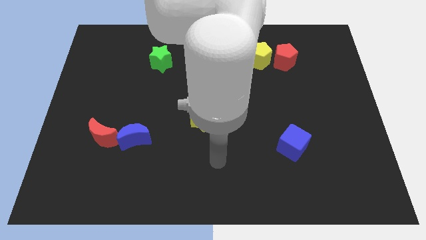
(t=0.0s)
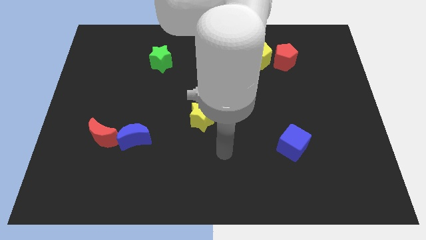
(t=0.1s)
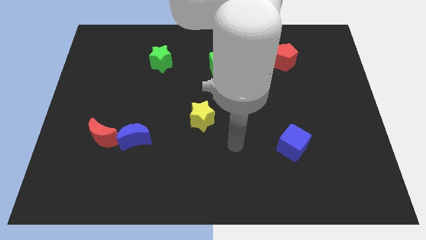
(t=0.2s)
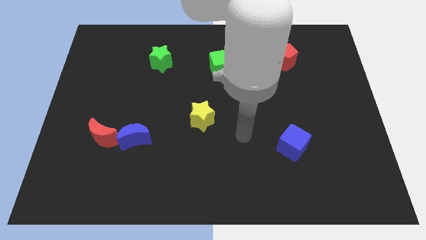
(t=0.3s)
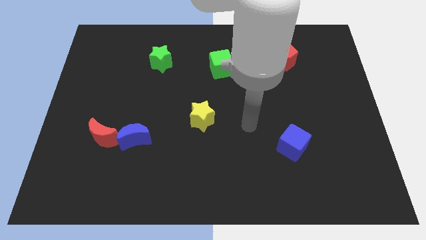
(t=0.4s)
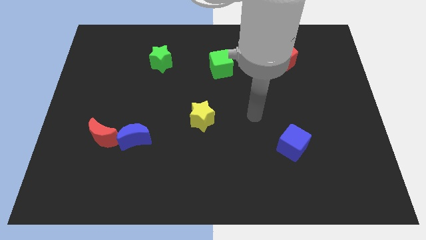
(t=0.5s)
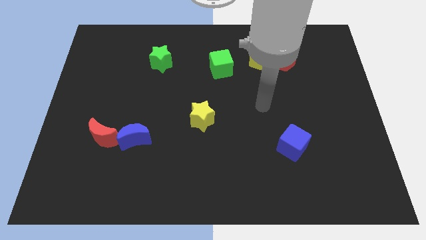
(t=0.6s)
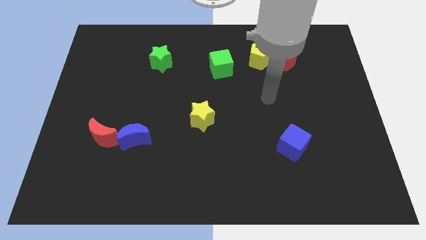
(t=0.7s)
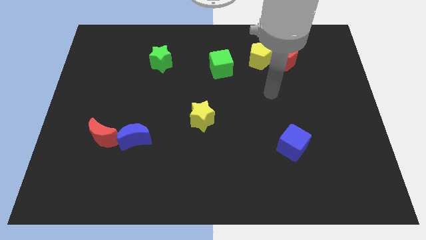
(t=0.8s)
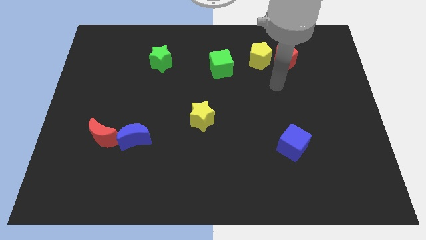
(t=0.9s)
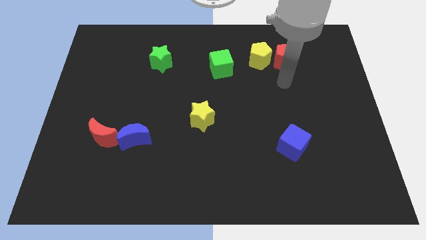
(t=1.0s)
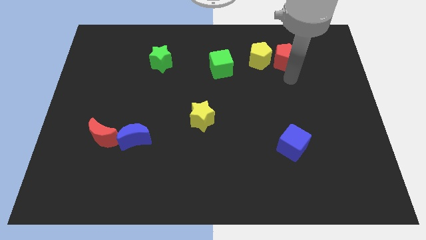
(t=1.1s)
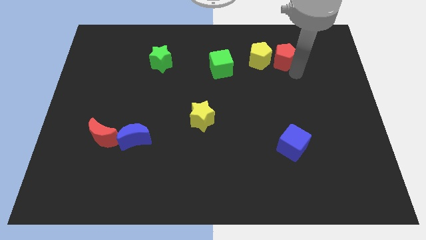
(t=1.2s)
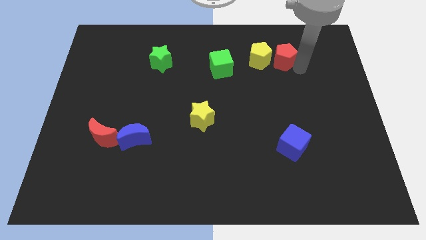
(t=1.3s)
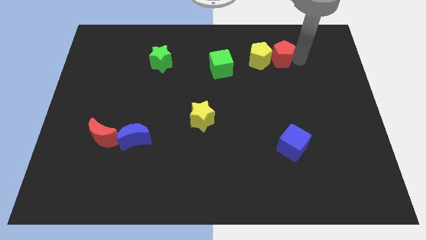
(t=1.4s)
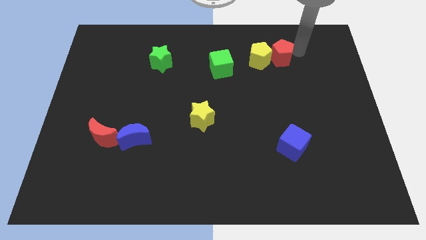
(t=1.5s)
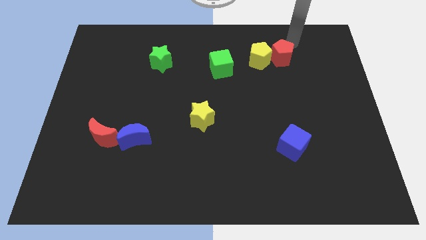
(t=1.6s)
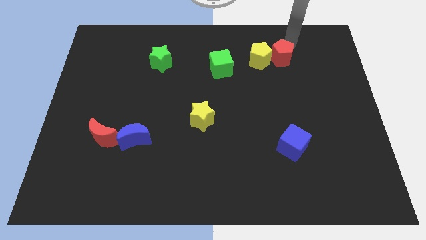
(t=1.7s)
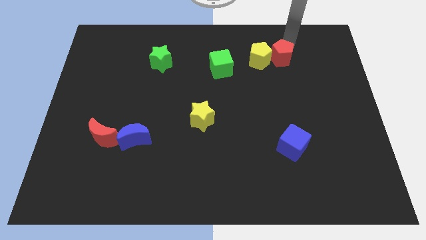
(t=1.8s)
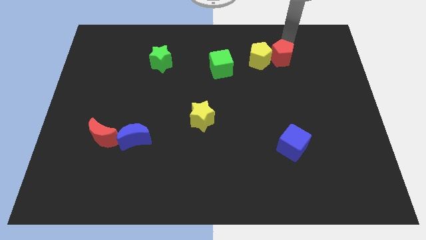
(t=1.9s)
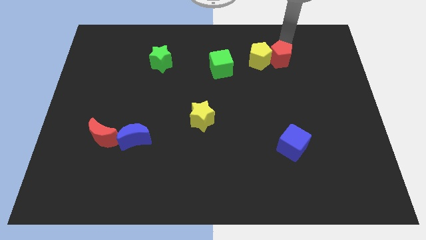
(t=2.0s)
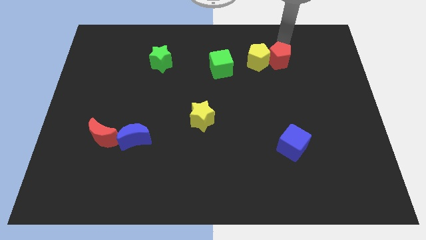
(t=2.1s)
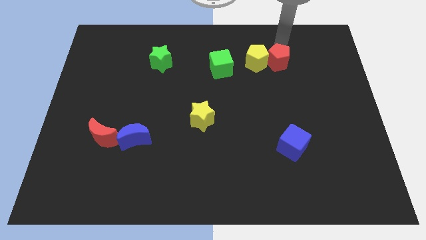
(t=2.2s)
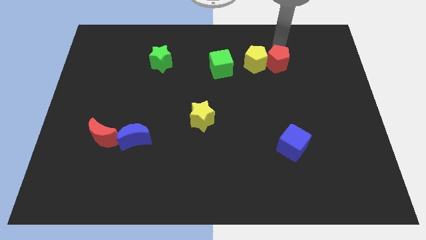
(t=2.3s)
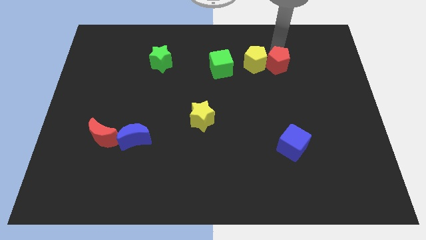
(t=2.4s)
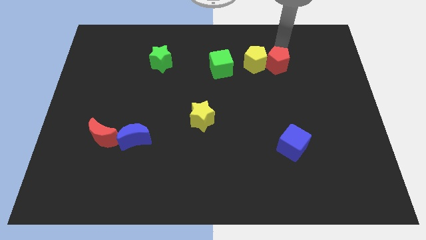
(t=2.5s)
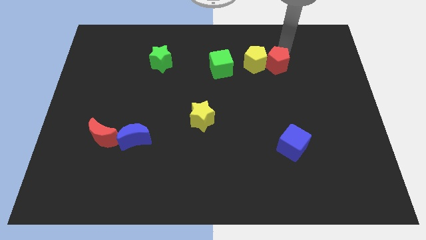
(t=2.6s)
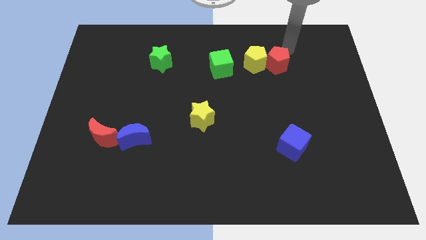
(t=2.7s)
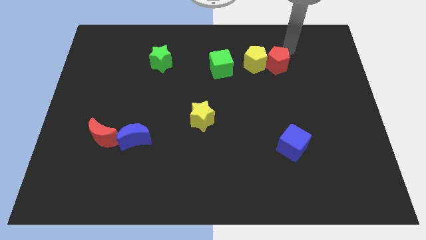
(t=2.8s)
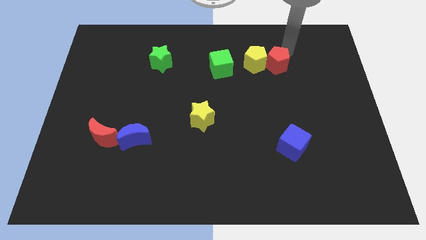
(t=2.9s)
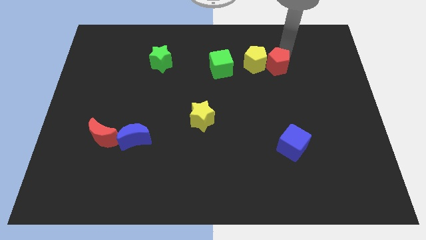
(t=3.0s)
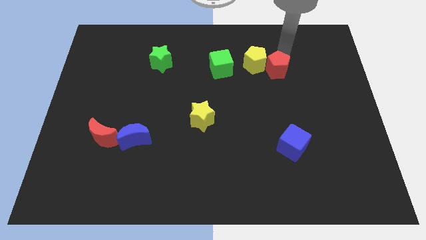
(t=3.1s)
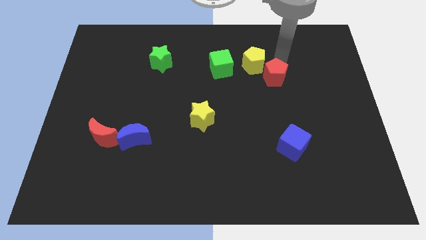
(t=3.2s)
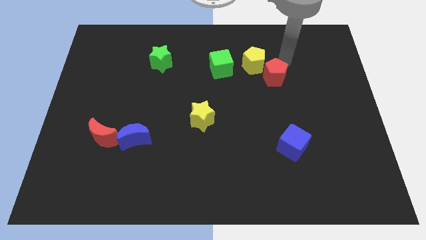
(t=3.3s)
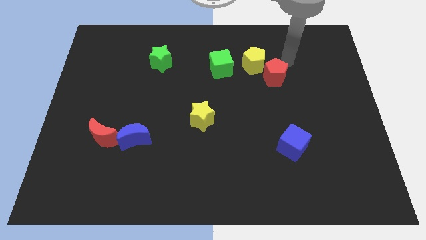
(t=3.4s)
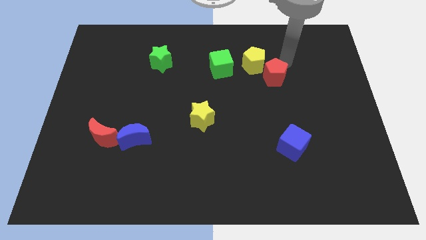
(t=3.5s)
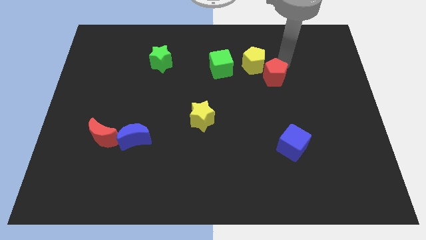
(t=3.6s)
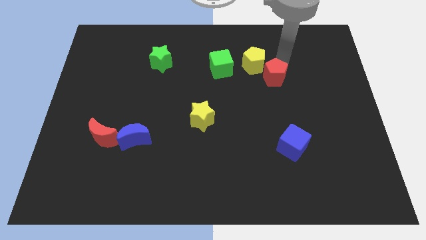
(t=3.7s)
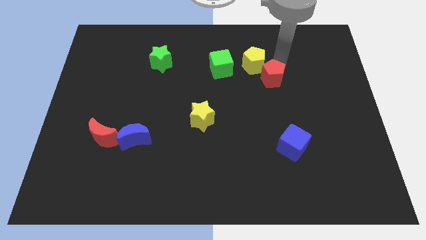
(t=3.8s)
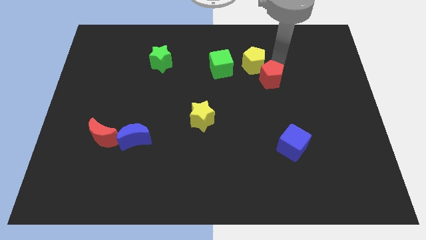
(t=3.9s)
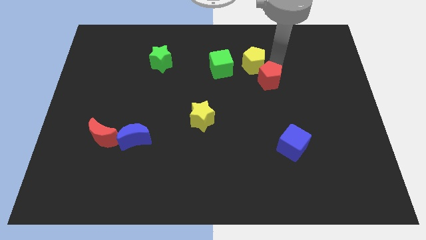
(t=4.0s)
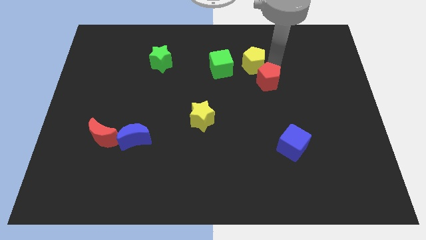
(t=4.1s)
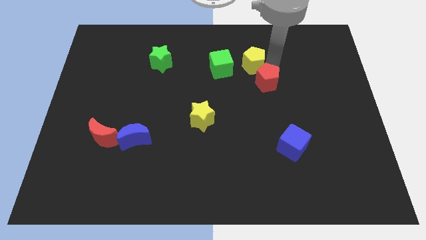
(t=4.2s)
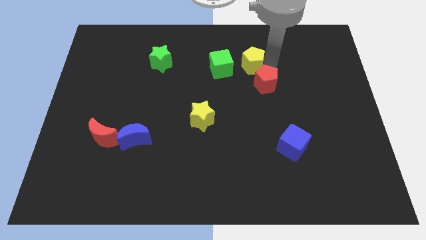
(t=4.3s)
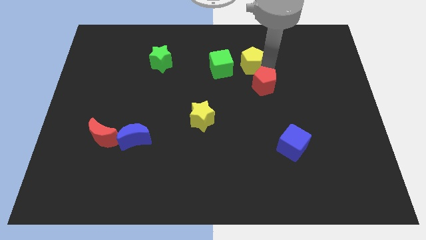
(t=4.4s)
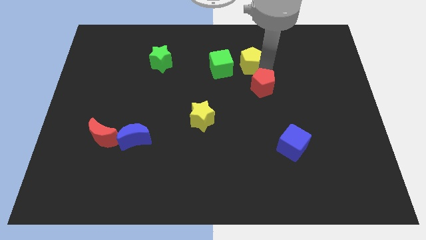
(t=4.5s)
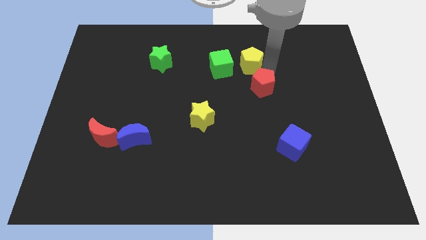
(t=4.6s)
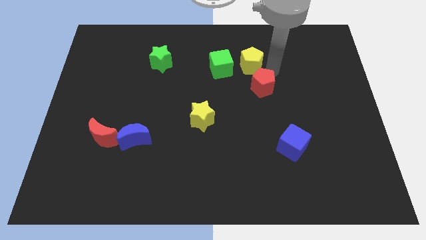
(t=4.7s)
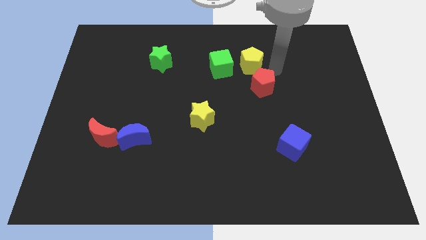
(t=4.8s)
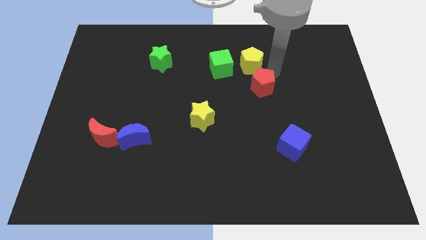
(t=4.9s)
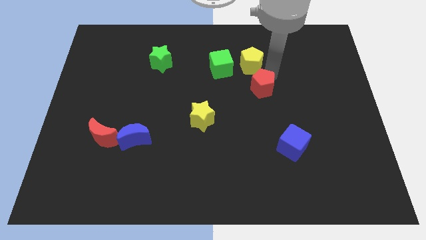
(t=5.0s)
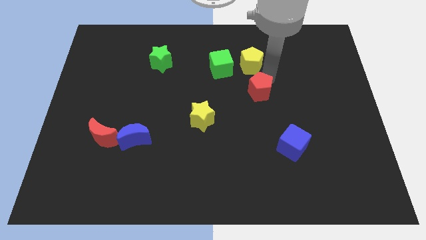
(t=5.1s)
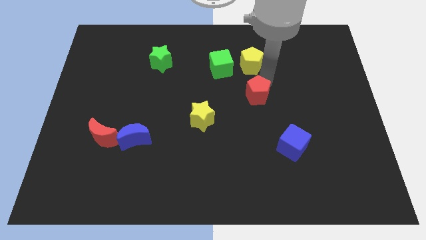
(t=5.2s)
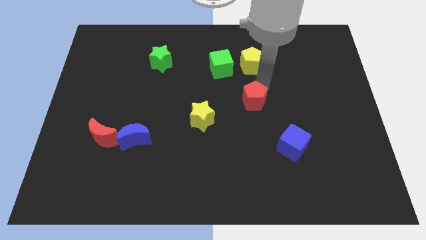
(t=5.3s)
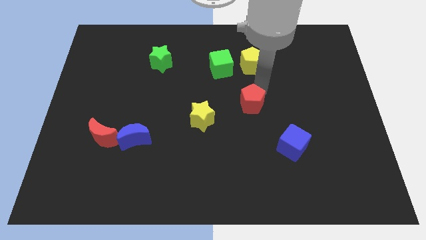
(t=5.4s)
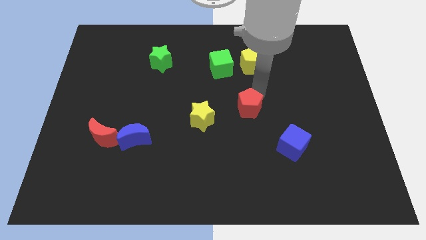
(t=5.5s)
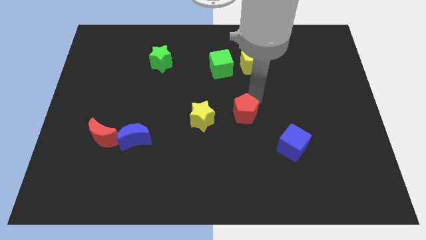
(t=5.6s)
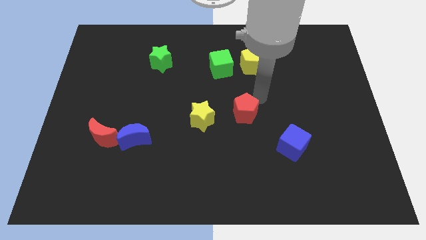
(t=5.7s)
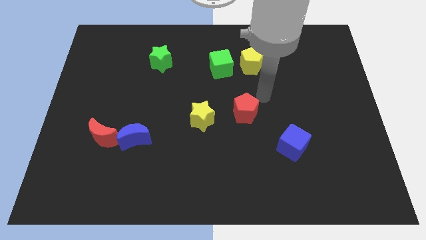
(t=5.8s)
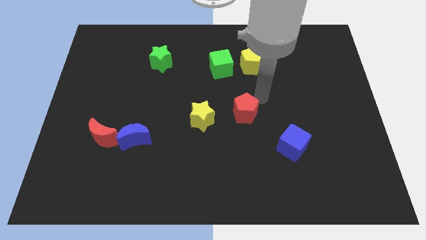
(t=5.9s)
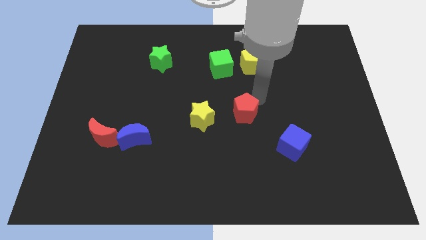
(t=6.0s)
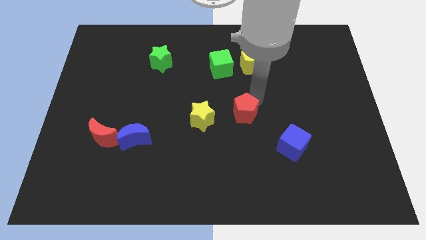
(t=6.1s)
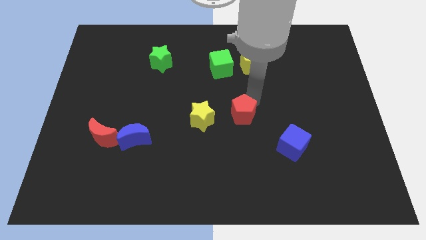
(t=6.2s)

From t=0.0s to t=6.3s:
move the red pentagon diagonally down and left

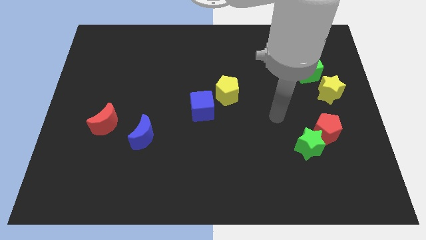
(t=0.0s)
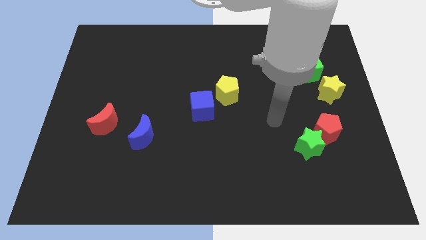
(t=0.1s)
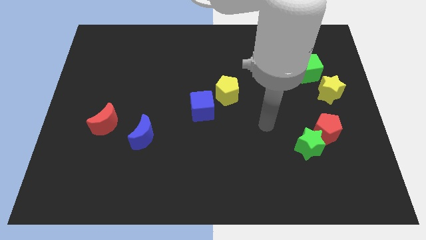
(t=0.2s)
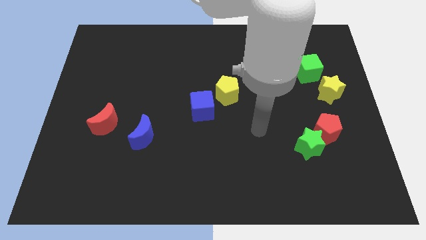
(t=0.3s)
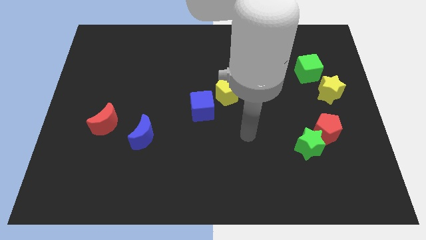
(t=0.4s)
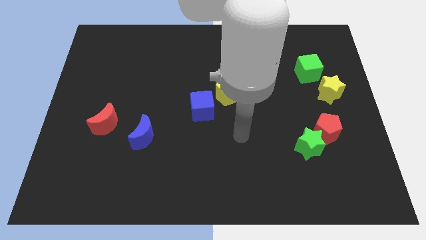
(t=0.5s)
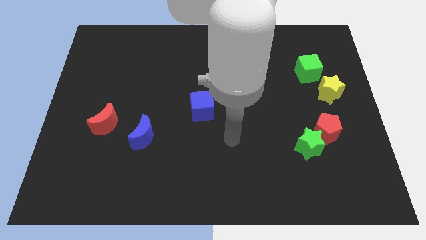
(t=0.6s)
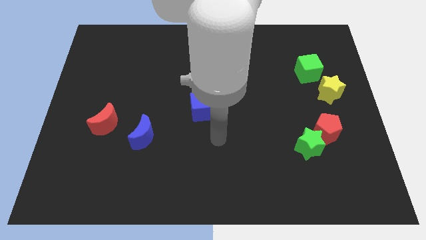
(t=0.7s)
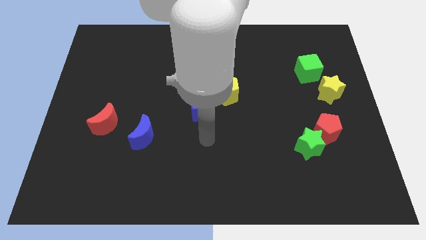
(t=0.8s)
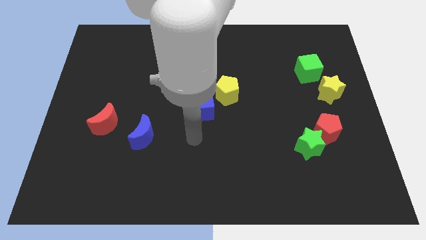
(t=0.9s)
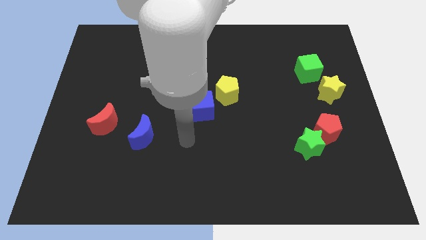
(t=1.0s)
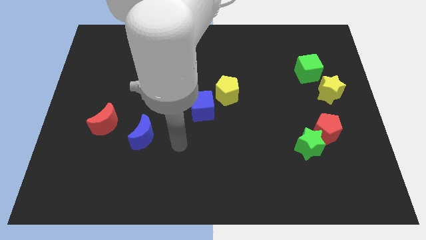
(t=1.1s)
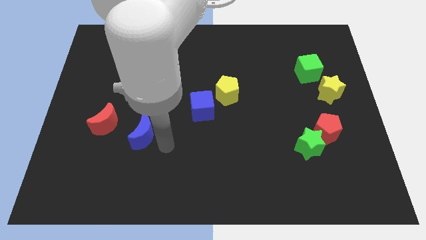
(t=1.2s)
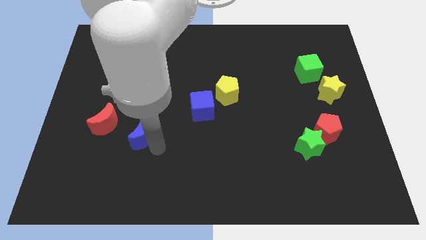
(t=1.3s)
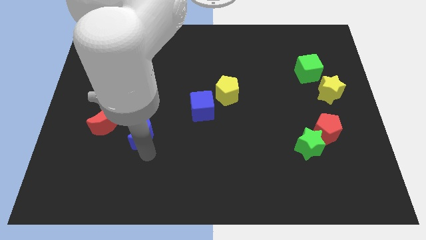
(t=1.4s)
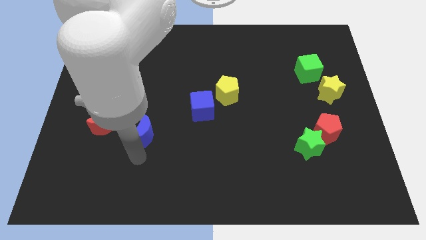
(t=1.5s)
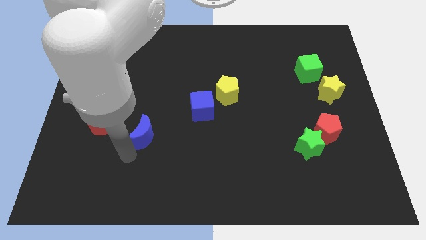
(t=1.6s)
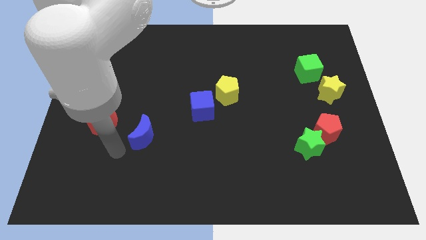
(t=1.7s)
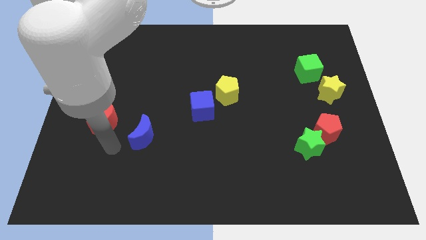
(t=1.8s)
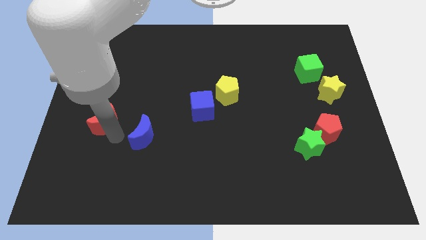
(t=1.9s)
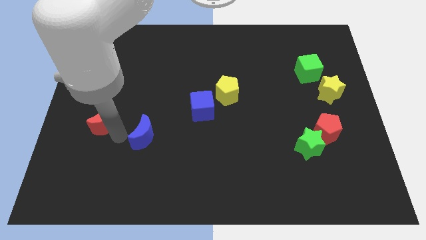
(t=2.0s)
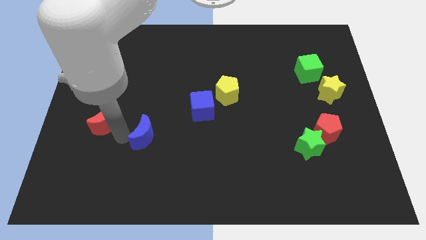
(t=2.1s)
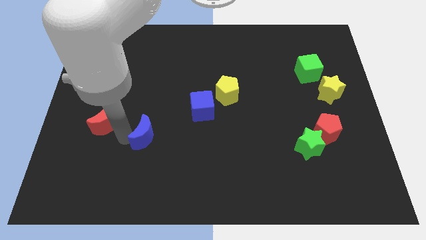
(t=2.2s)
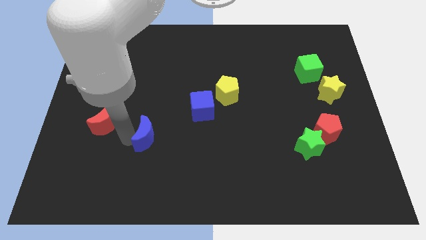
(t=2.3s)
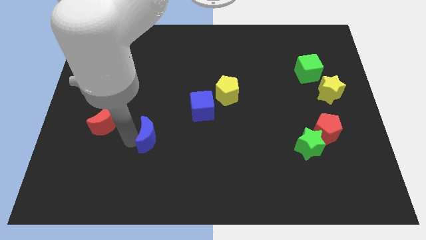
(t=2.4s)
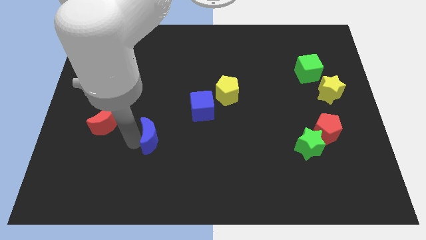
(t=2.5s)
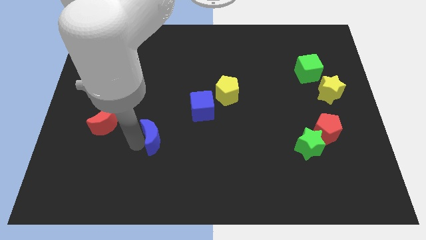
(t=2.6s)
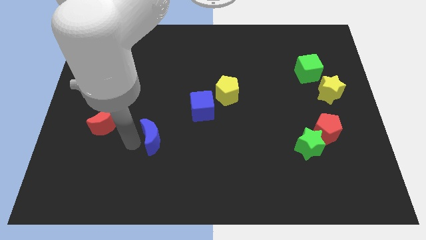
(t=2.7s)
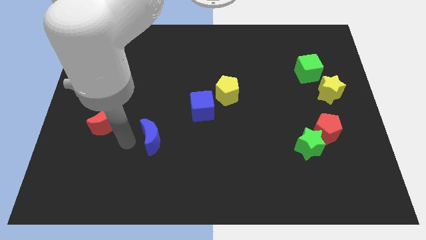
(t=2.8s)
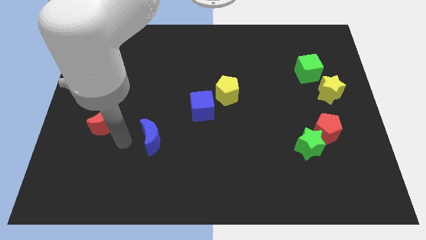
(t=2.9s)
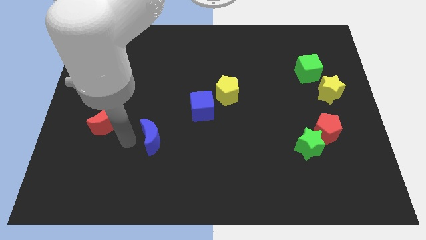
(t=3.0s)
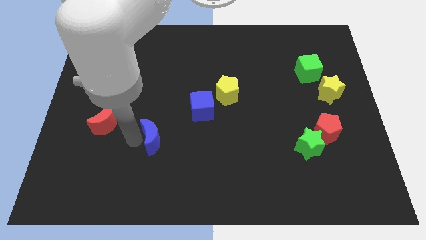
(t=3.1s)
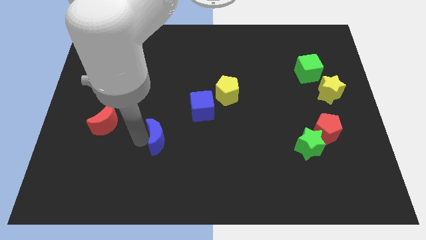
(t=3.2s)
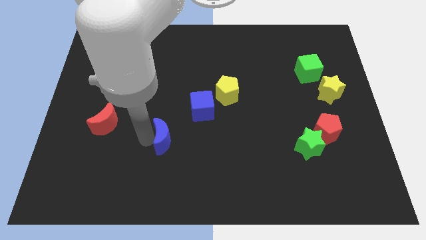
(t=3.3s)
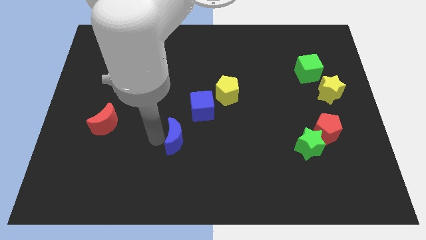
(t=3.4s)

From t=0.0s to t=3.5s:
move the blue moon right a bit
